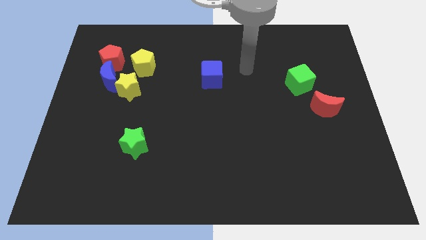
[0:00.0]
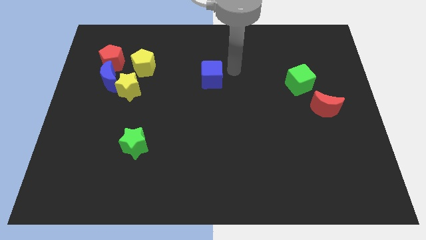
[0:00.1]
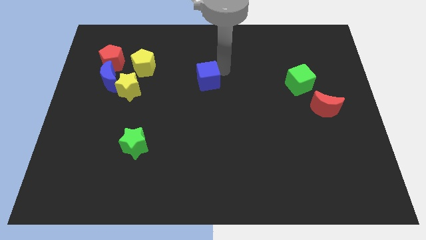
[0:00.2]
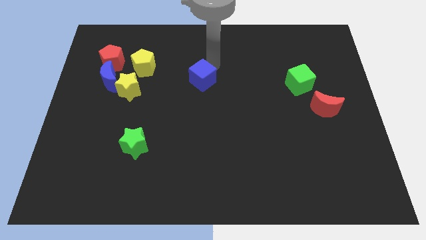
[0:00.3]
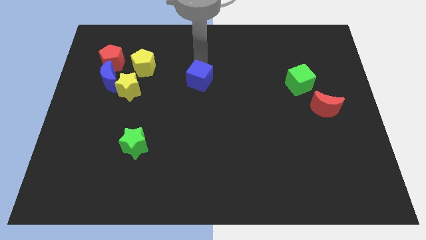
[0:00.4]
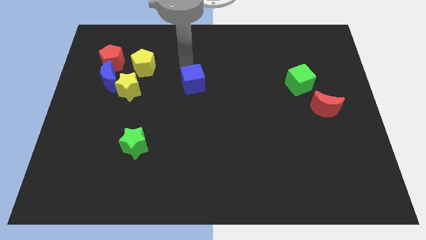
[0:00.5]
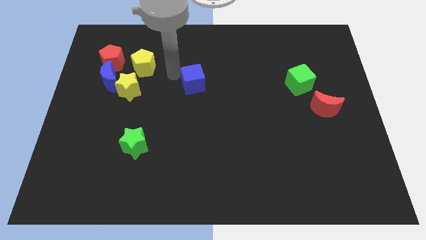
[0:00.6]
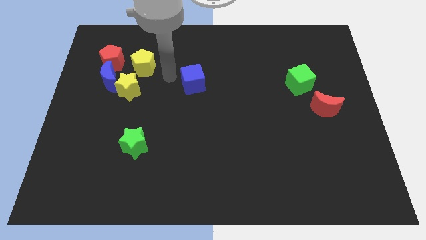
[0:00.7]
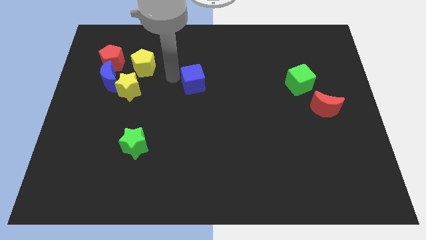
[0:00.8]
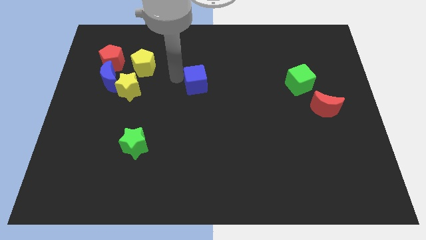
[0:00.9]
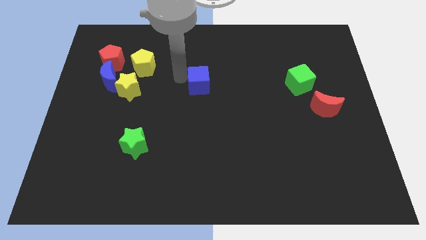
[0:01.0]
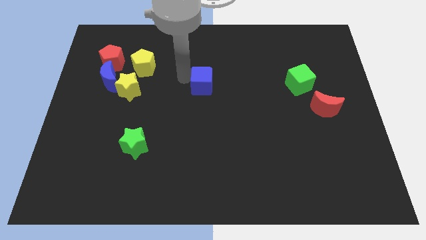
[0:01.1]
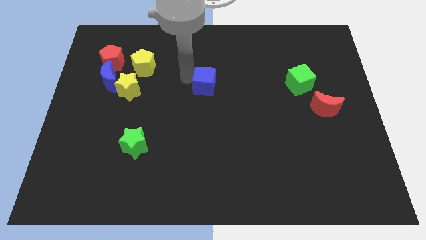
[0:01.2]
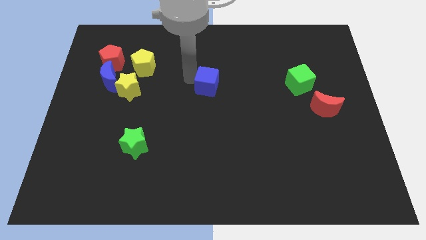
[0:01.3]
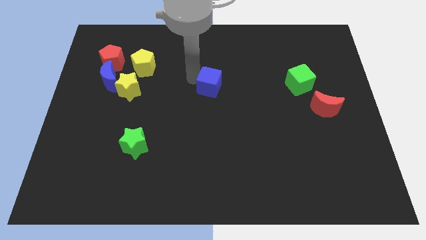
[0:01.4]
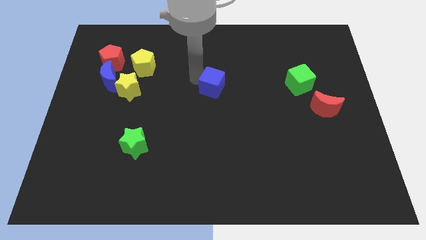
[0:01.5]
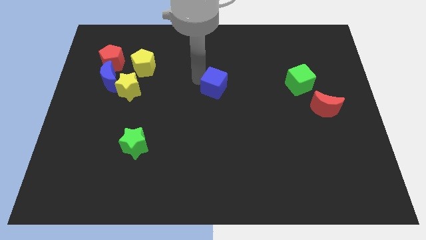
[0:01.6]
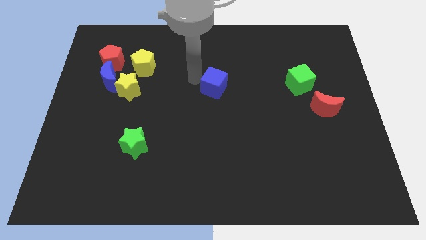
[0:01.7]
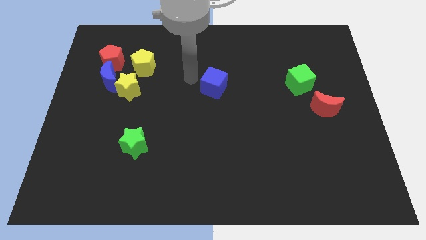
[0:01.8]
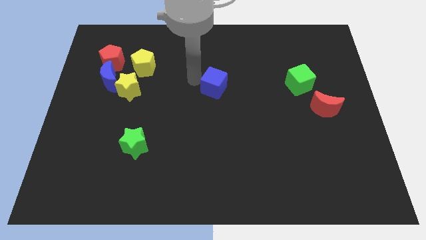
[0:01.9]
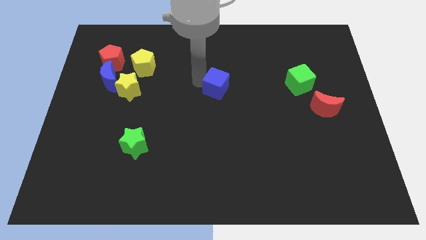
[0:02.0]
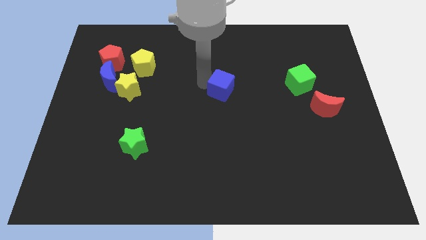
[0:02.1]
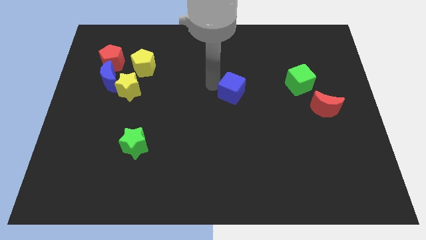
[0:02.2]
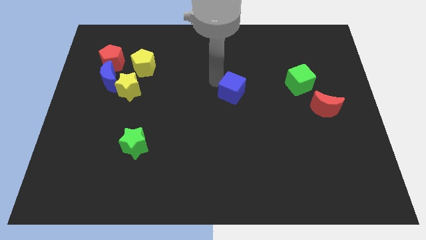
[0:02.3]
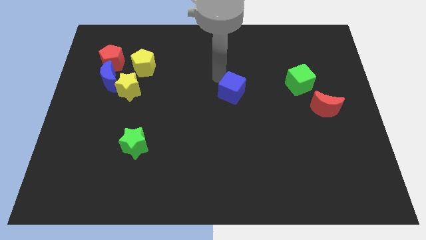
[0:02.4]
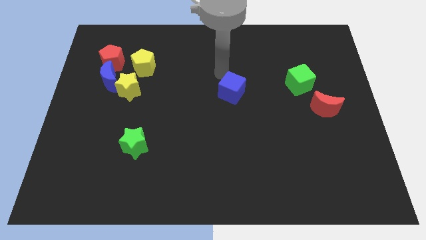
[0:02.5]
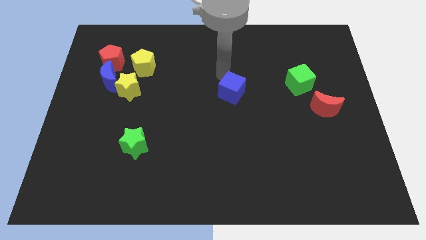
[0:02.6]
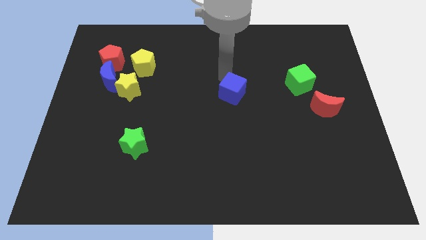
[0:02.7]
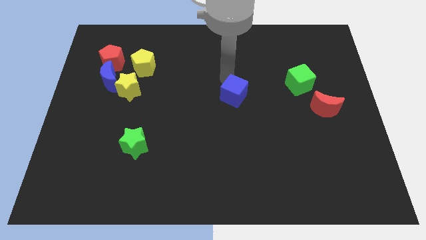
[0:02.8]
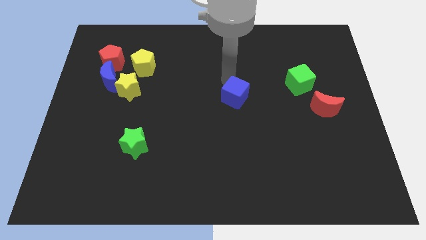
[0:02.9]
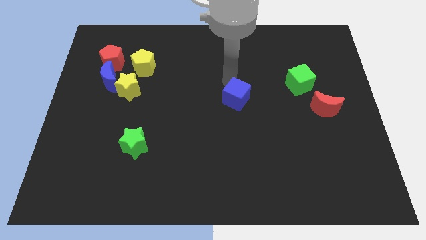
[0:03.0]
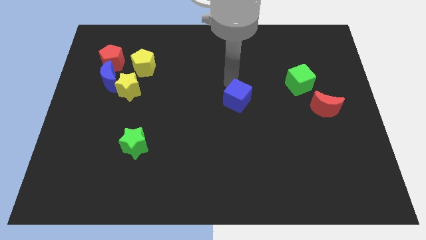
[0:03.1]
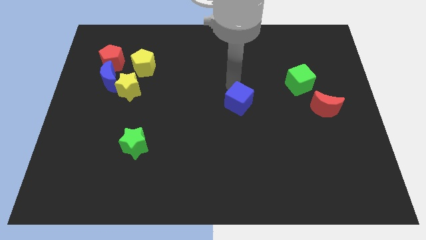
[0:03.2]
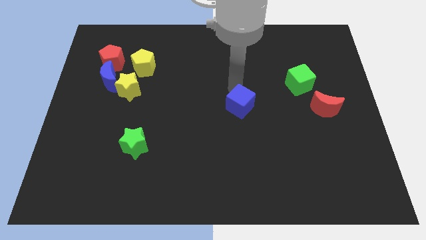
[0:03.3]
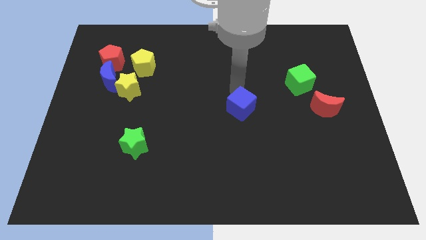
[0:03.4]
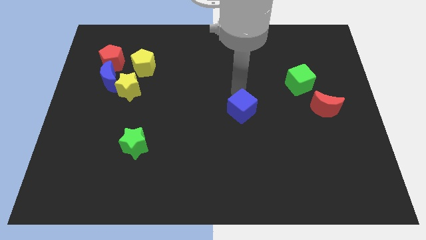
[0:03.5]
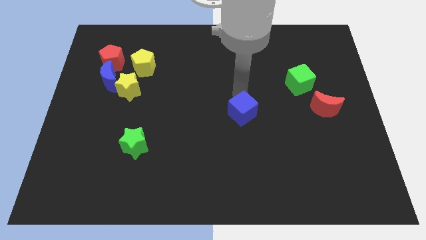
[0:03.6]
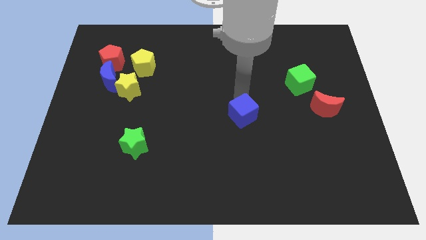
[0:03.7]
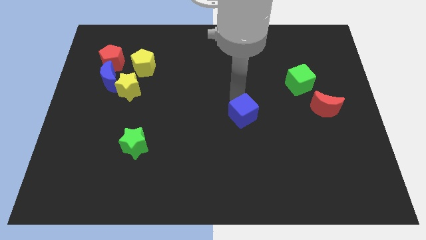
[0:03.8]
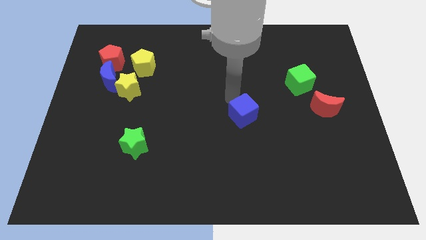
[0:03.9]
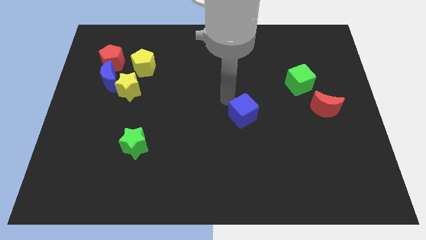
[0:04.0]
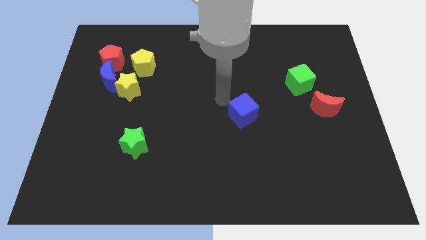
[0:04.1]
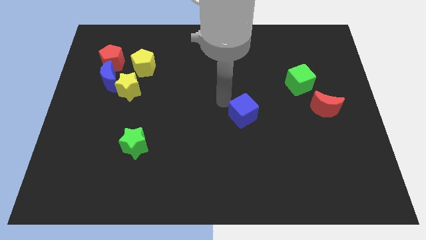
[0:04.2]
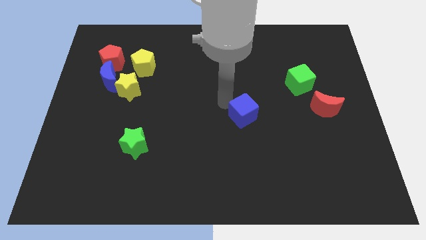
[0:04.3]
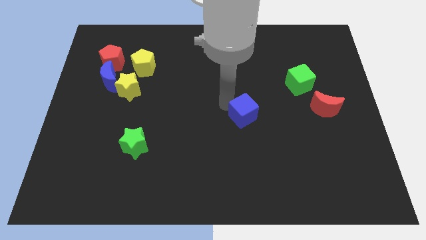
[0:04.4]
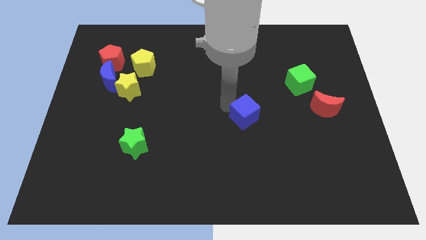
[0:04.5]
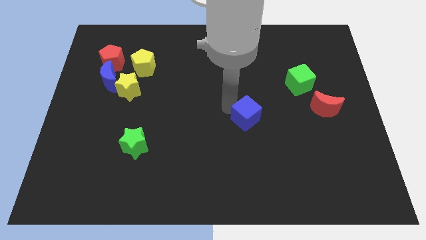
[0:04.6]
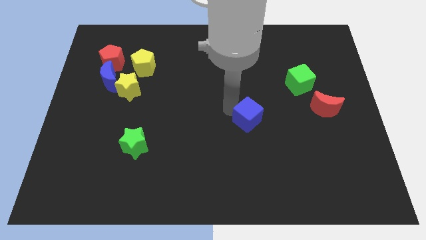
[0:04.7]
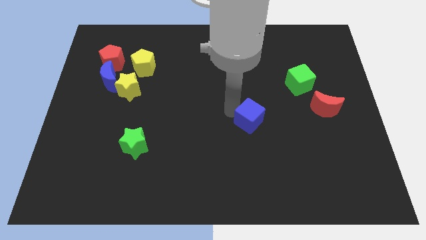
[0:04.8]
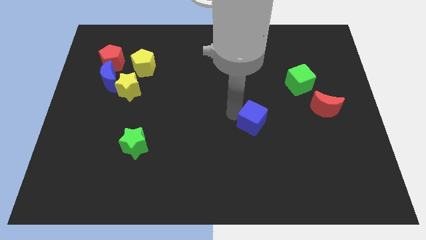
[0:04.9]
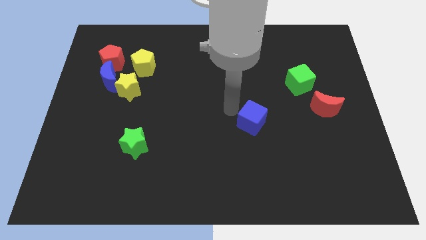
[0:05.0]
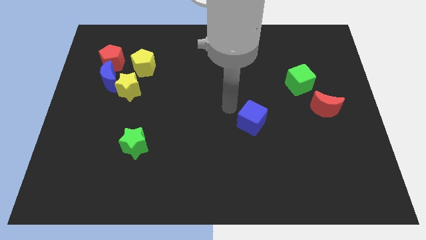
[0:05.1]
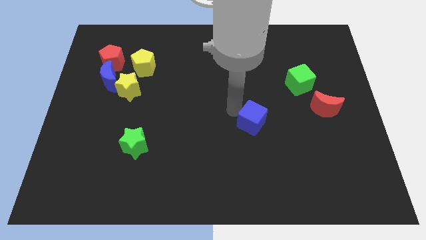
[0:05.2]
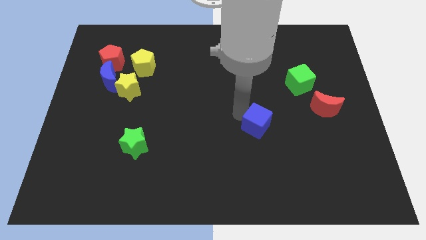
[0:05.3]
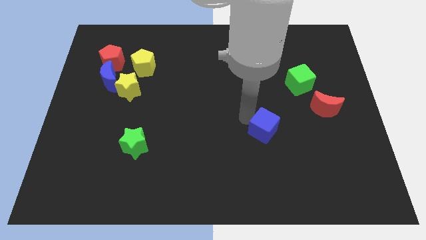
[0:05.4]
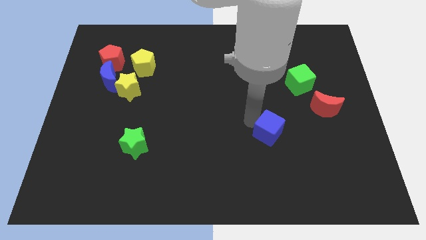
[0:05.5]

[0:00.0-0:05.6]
slide the blue cube downwards and right

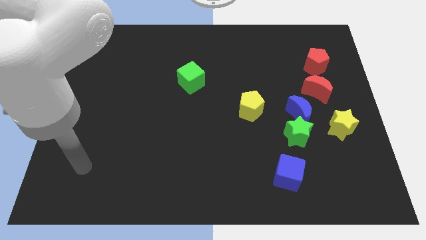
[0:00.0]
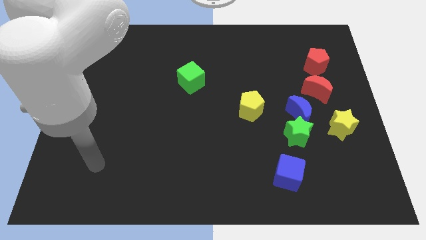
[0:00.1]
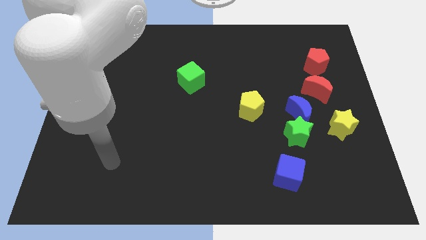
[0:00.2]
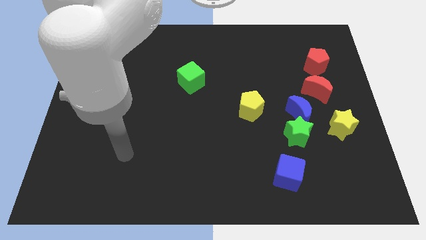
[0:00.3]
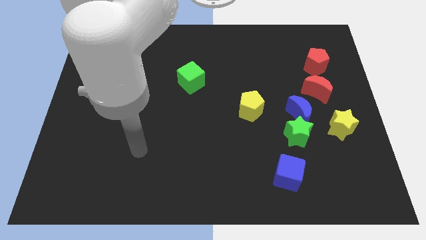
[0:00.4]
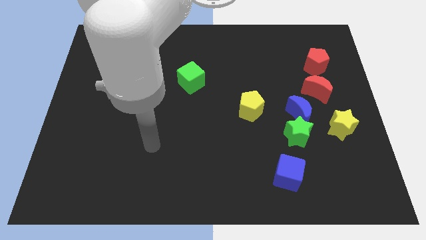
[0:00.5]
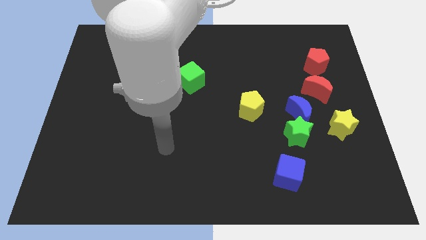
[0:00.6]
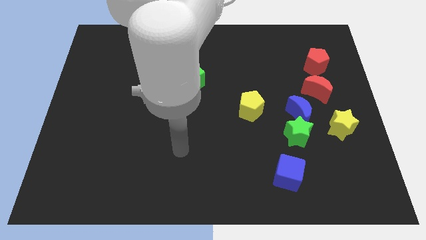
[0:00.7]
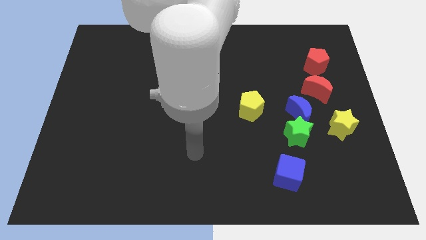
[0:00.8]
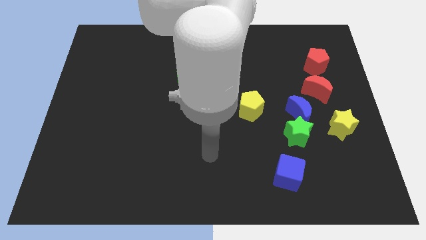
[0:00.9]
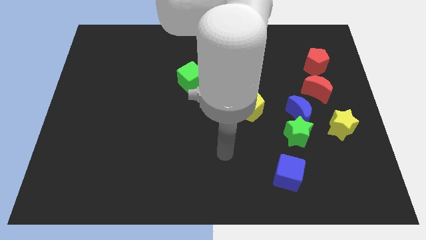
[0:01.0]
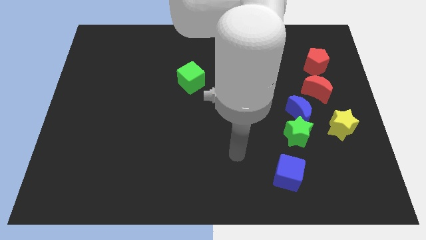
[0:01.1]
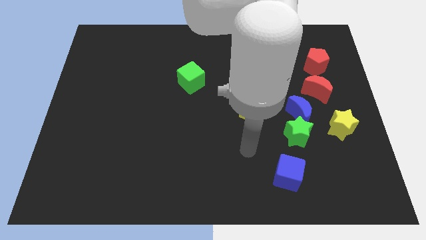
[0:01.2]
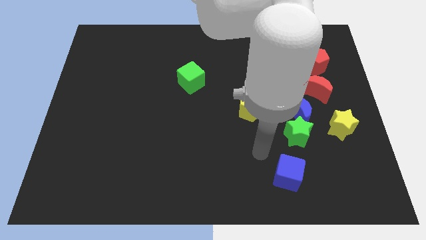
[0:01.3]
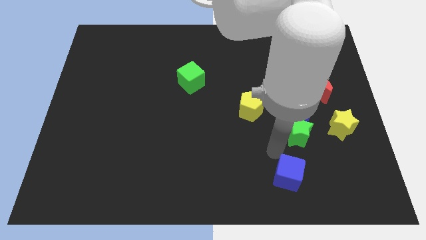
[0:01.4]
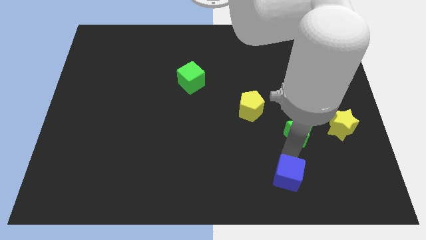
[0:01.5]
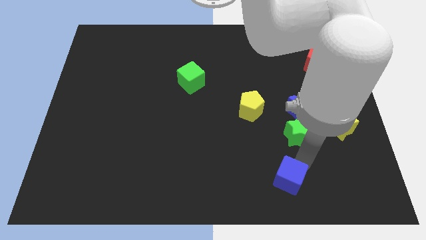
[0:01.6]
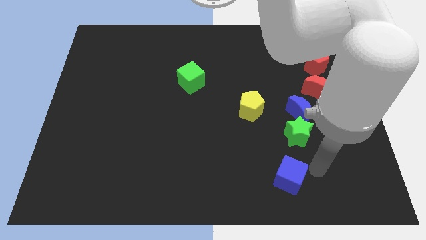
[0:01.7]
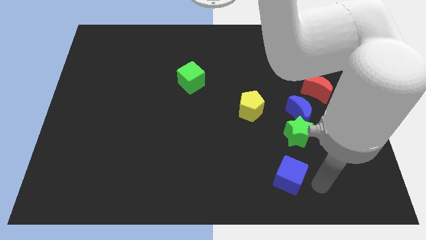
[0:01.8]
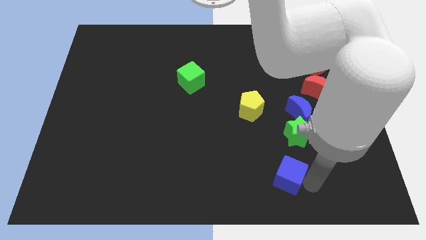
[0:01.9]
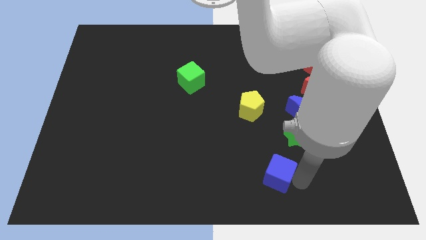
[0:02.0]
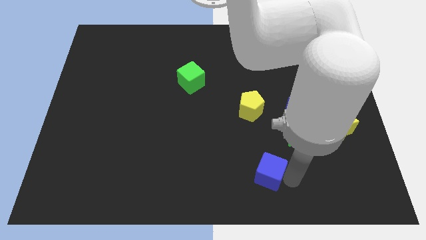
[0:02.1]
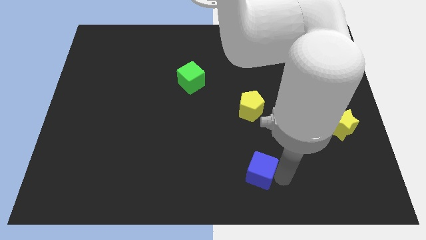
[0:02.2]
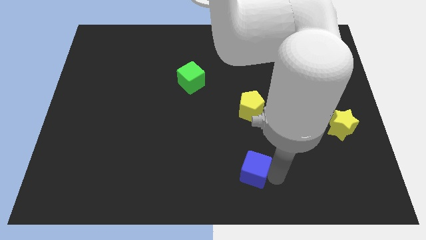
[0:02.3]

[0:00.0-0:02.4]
push the blue cube left a little
